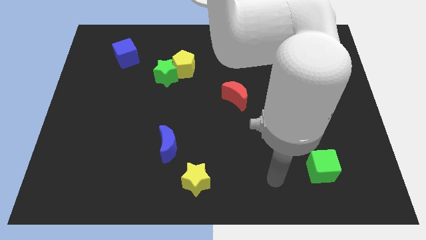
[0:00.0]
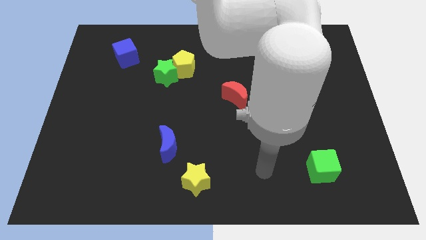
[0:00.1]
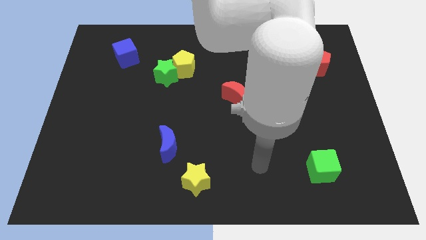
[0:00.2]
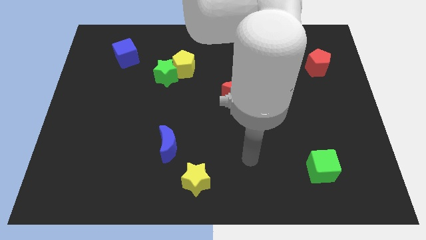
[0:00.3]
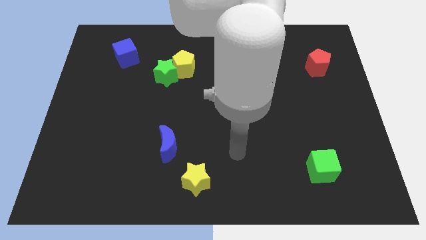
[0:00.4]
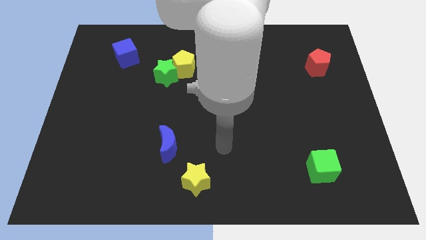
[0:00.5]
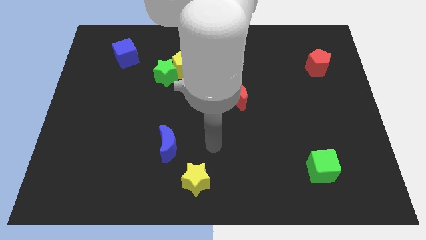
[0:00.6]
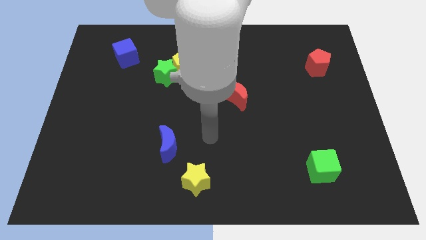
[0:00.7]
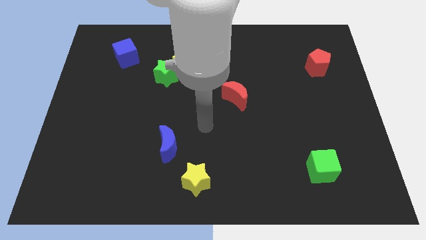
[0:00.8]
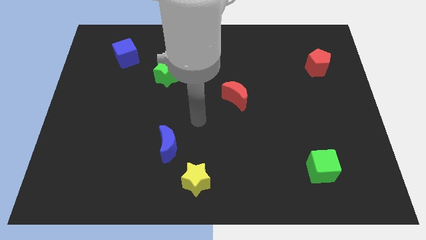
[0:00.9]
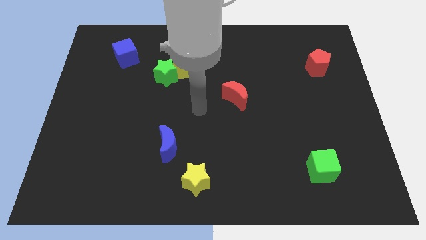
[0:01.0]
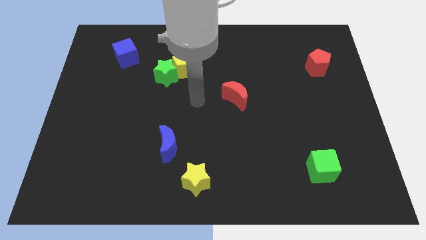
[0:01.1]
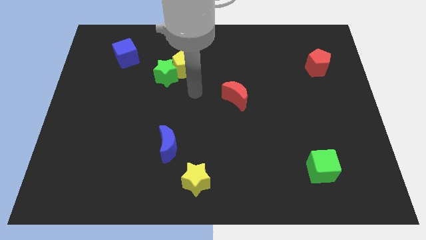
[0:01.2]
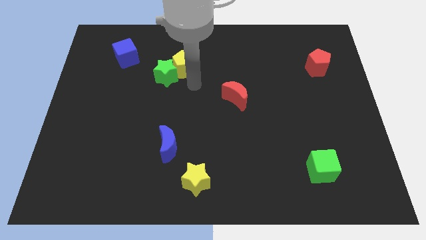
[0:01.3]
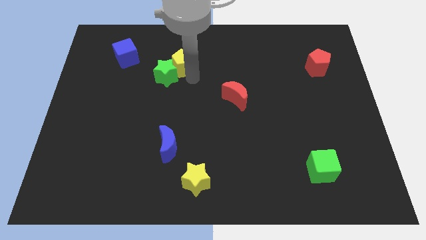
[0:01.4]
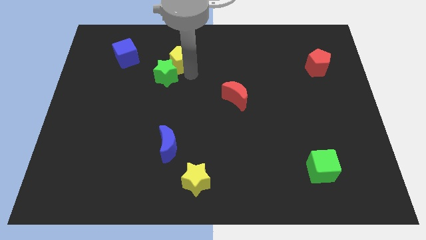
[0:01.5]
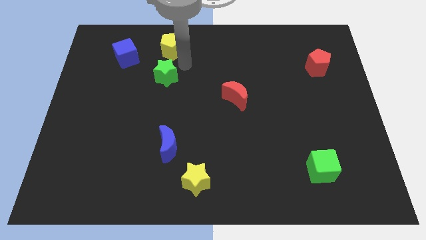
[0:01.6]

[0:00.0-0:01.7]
separate the green star from the yellow pentagon

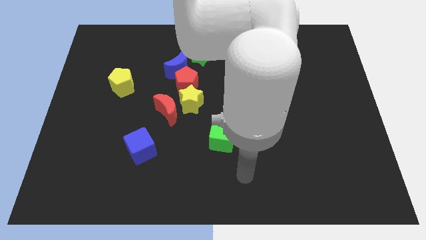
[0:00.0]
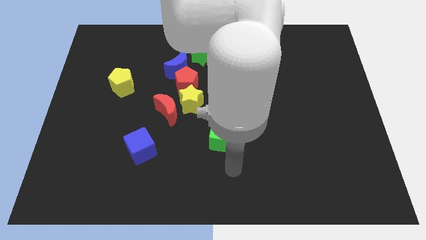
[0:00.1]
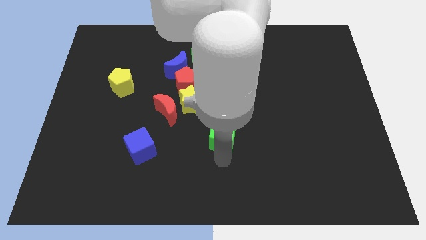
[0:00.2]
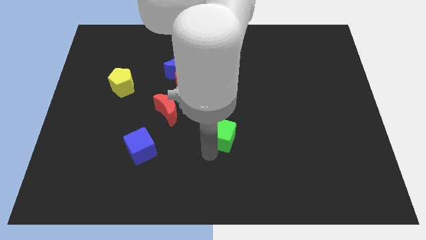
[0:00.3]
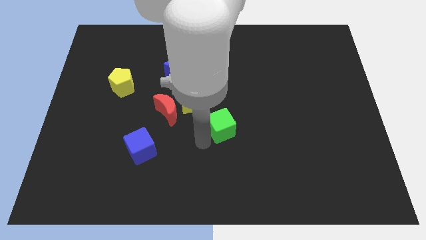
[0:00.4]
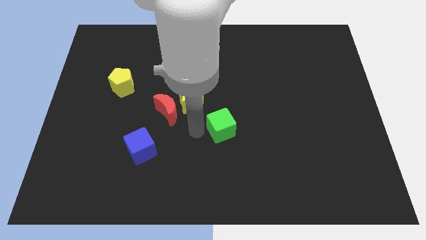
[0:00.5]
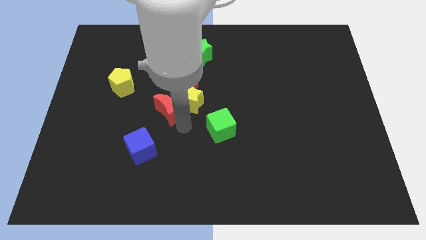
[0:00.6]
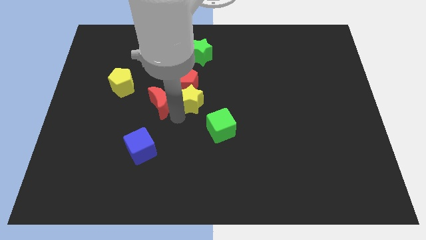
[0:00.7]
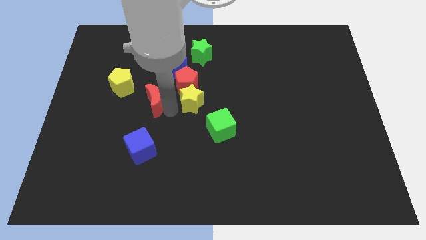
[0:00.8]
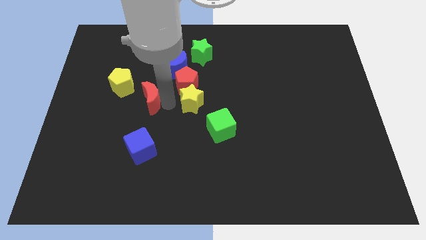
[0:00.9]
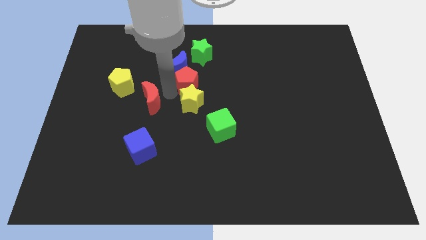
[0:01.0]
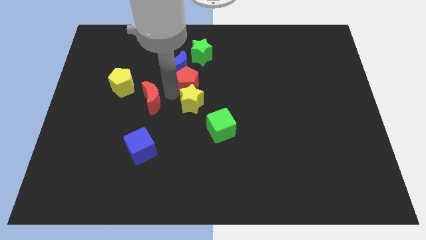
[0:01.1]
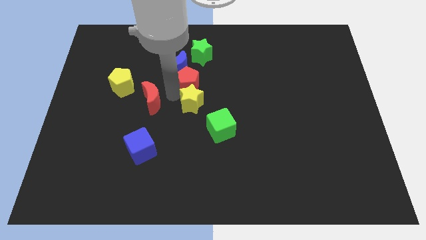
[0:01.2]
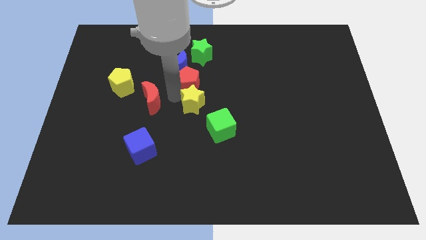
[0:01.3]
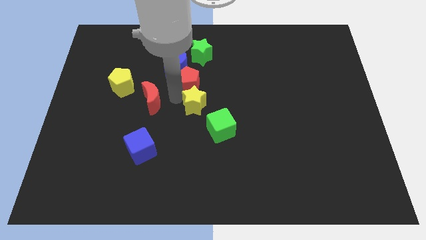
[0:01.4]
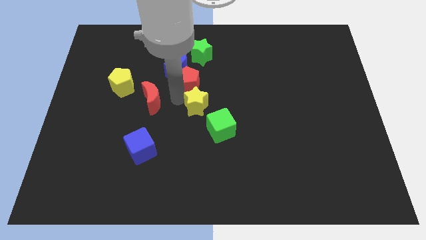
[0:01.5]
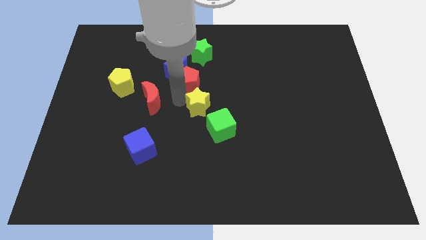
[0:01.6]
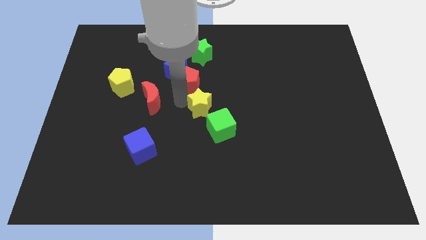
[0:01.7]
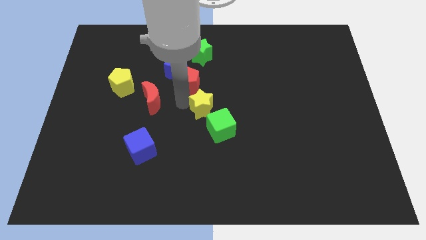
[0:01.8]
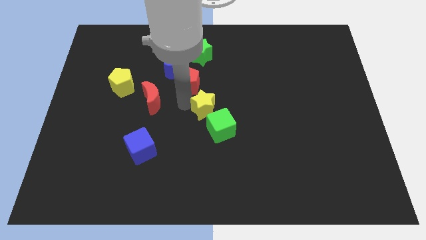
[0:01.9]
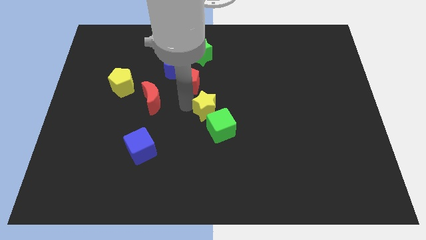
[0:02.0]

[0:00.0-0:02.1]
pull the yellow star apart from the red moon and red pentagon

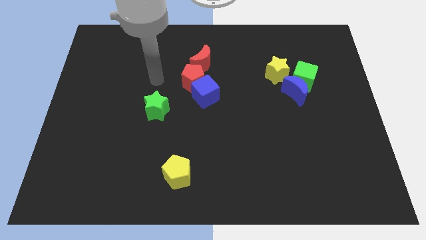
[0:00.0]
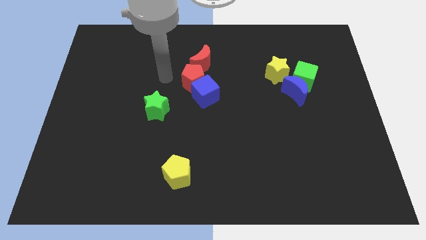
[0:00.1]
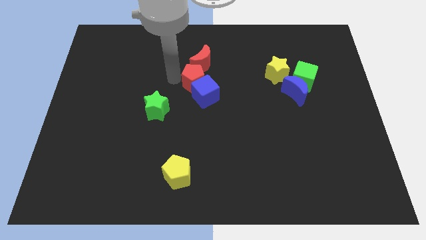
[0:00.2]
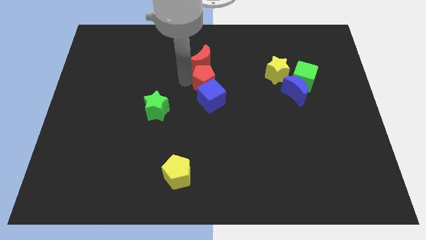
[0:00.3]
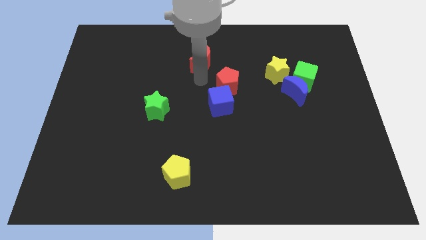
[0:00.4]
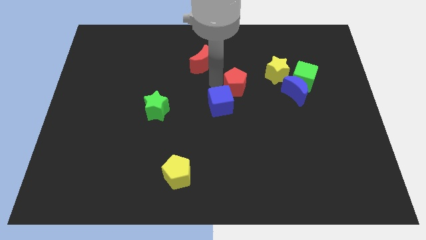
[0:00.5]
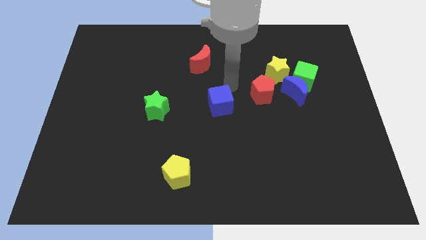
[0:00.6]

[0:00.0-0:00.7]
pull the blue cube apart from the red pentagon

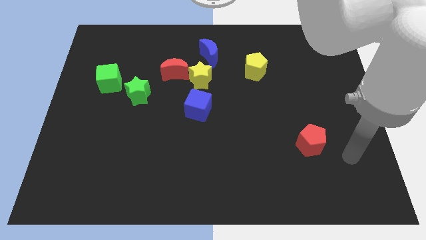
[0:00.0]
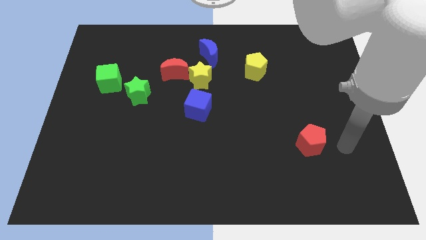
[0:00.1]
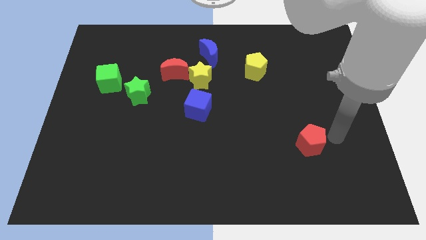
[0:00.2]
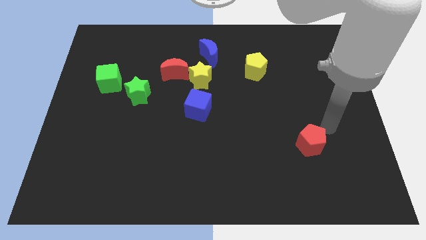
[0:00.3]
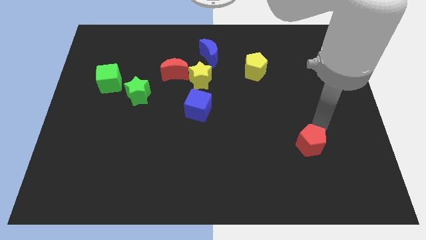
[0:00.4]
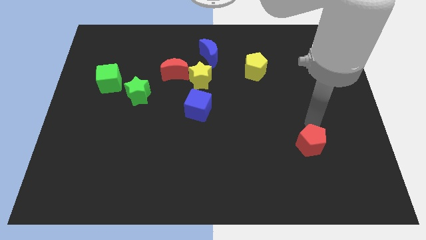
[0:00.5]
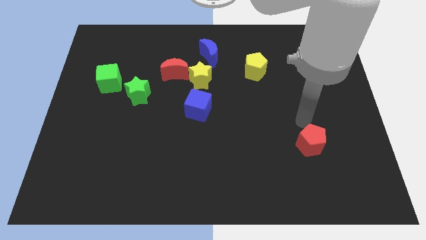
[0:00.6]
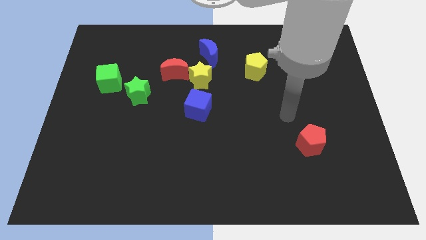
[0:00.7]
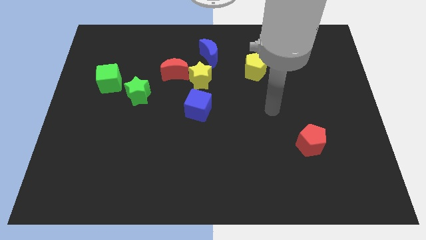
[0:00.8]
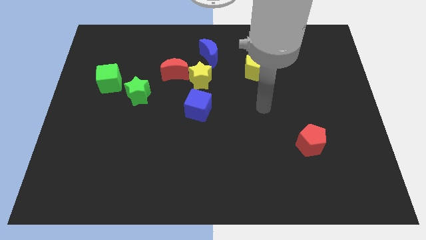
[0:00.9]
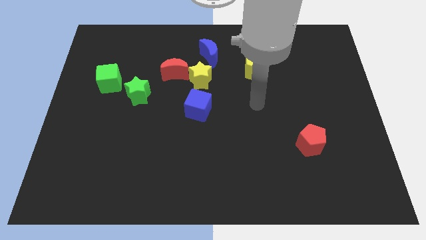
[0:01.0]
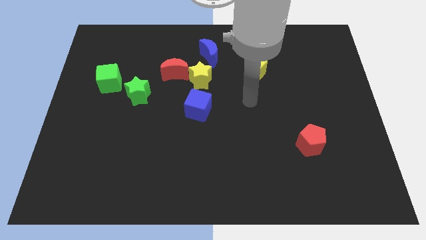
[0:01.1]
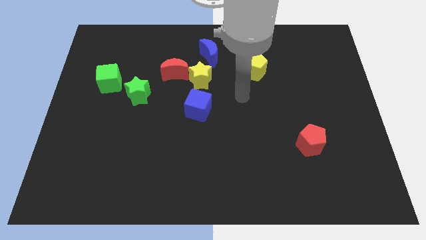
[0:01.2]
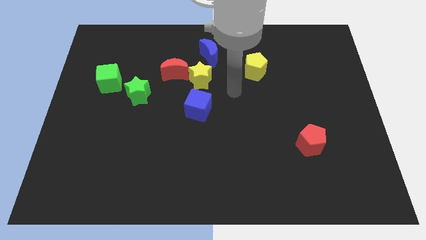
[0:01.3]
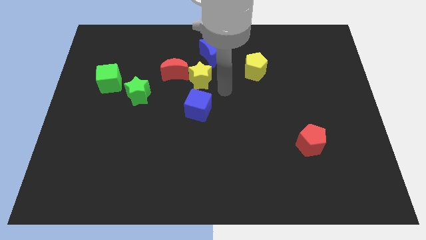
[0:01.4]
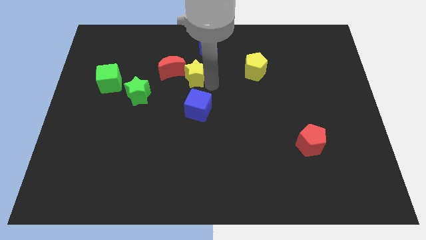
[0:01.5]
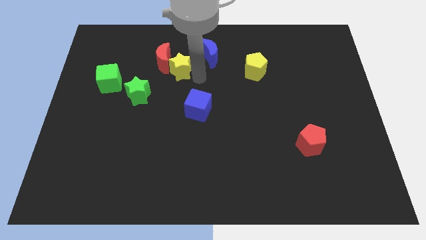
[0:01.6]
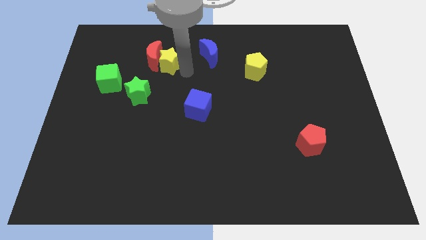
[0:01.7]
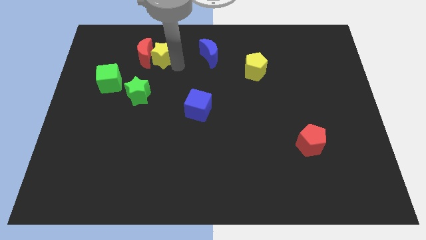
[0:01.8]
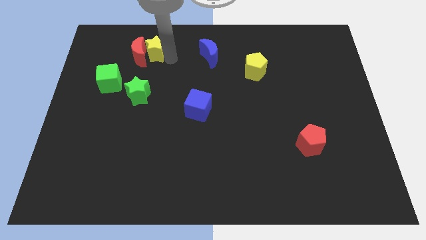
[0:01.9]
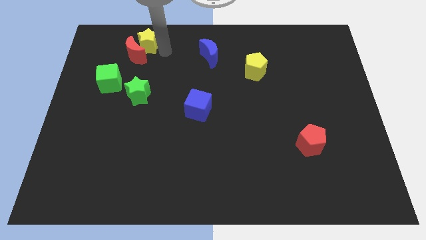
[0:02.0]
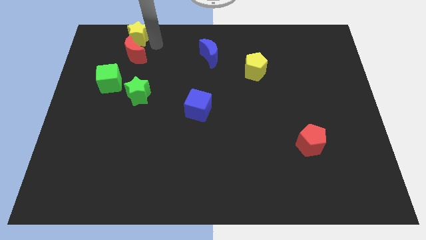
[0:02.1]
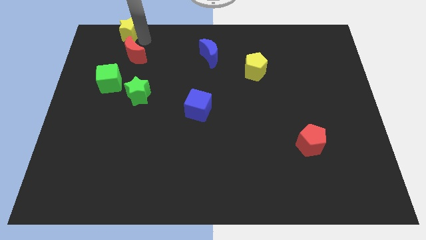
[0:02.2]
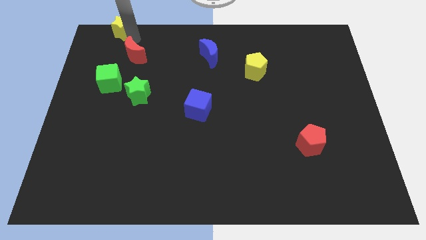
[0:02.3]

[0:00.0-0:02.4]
pull the red moon apart from the yellow star

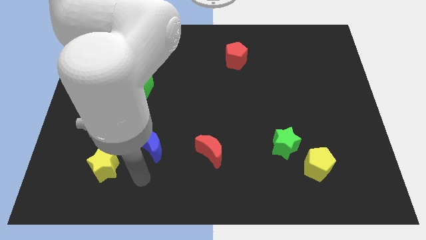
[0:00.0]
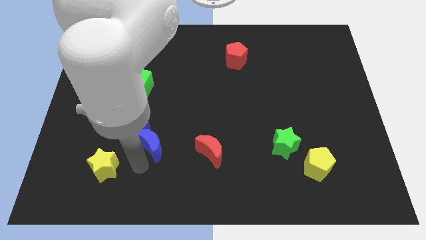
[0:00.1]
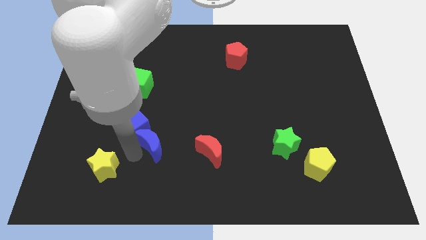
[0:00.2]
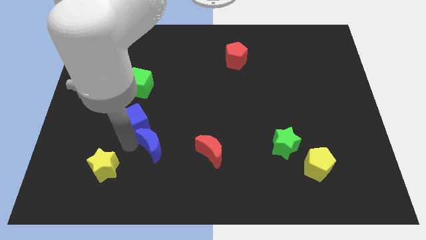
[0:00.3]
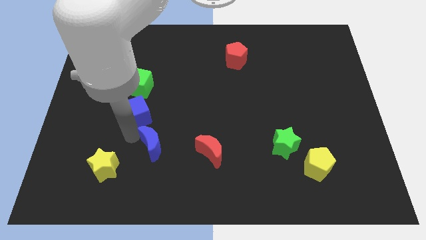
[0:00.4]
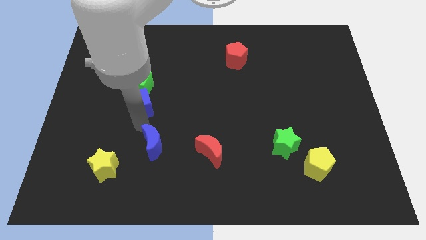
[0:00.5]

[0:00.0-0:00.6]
move the blue moon away from the blue cube

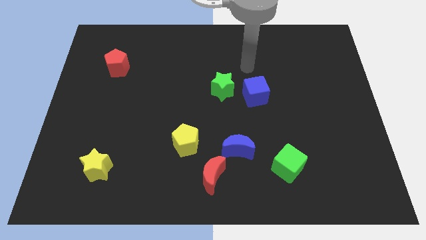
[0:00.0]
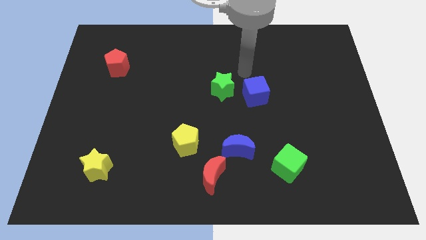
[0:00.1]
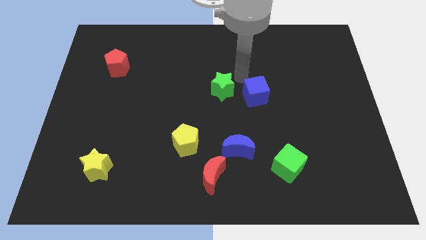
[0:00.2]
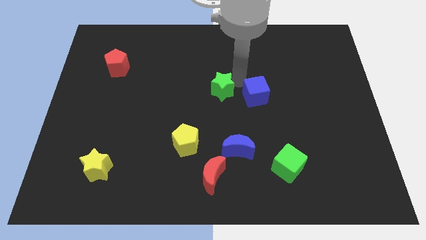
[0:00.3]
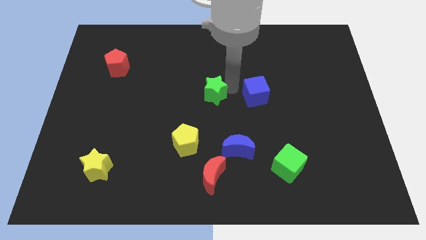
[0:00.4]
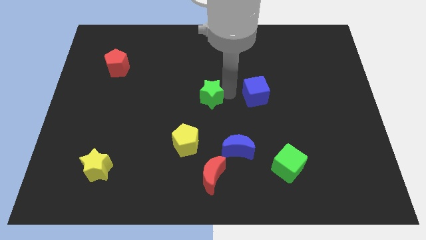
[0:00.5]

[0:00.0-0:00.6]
separate the blue cube from the green star

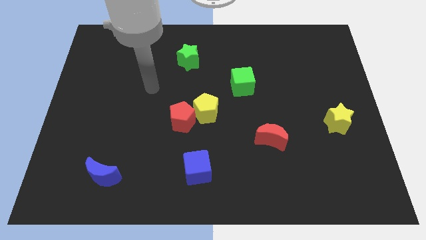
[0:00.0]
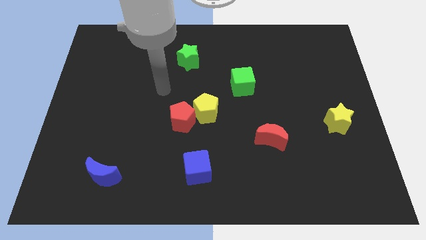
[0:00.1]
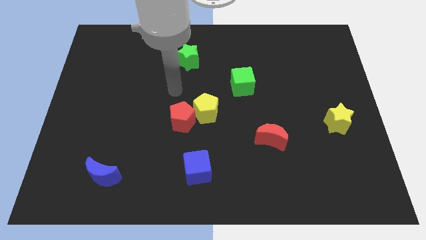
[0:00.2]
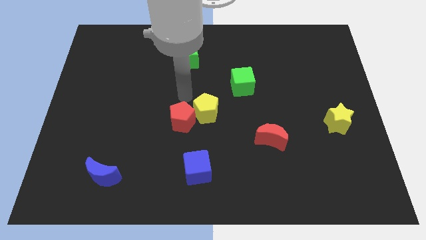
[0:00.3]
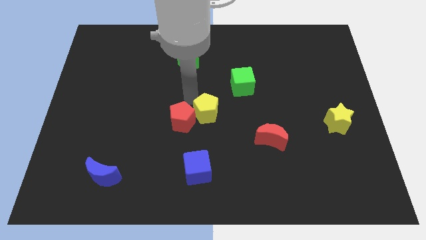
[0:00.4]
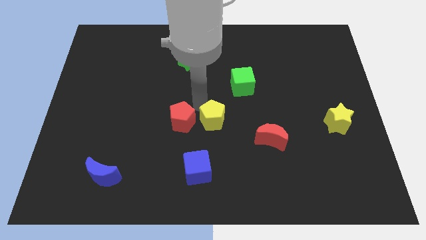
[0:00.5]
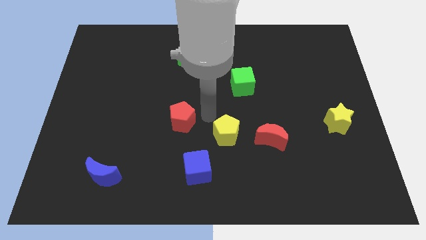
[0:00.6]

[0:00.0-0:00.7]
pull the red pentagon apart from the yellow pentagon

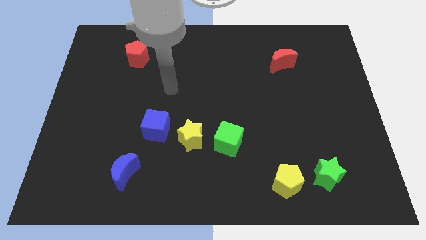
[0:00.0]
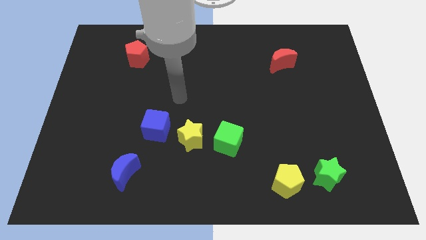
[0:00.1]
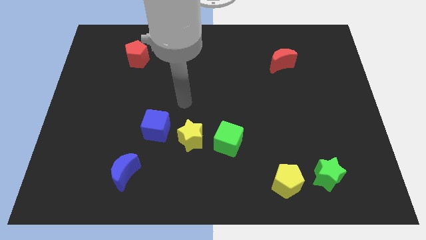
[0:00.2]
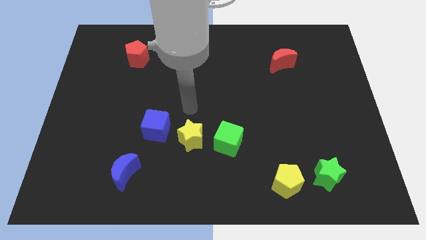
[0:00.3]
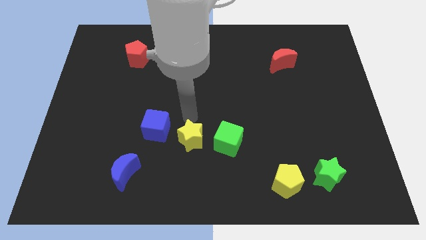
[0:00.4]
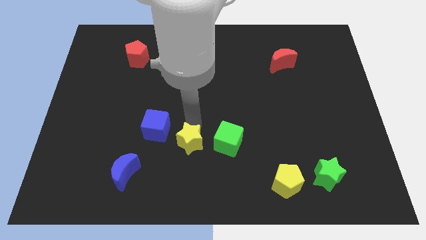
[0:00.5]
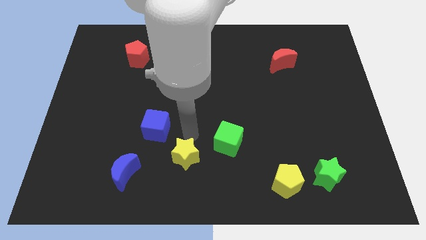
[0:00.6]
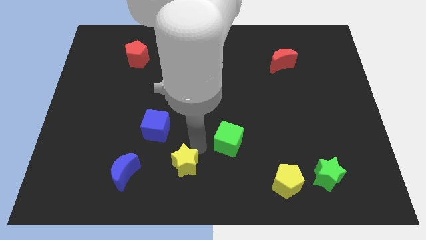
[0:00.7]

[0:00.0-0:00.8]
pull the green cube apart from the yellow star
